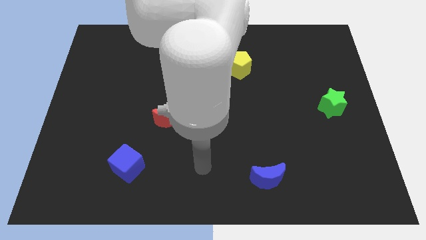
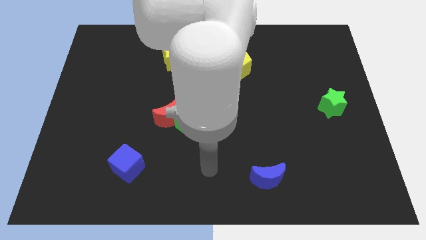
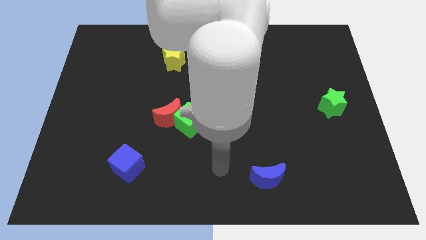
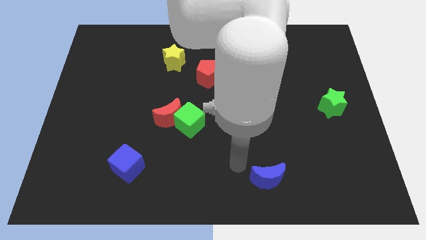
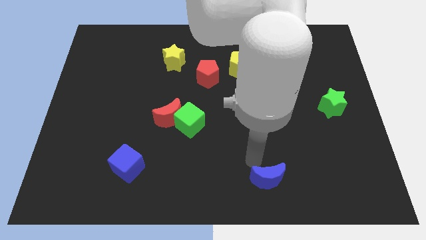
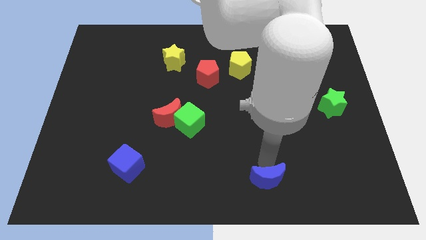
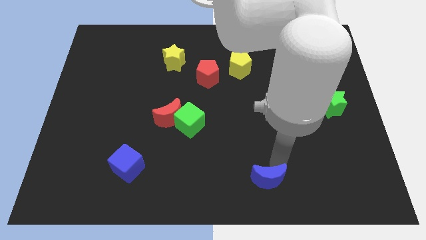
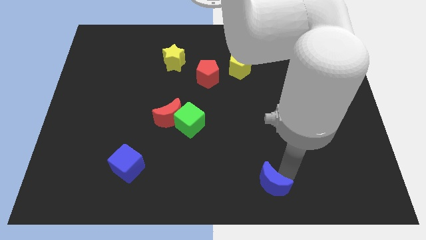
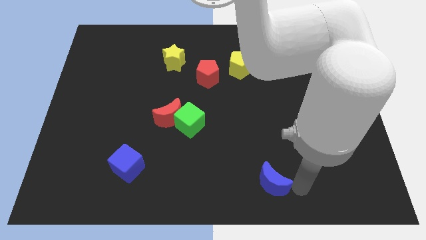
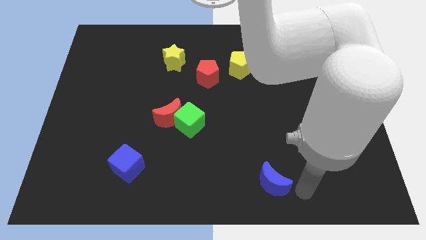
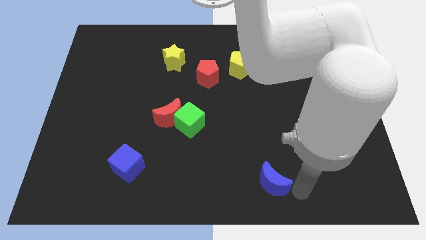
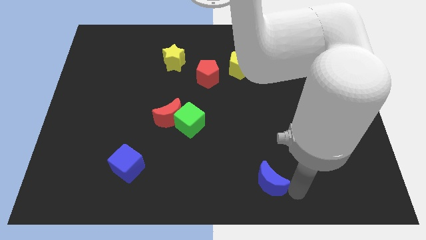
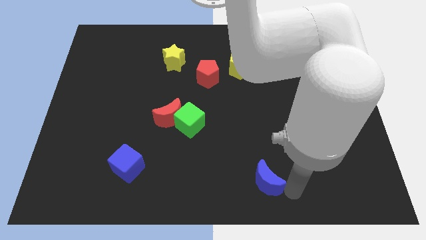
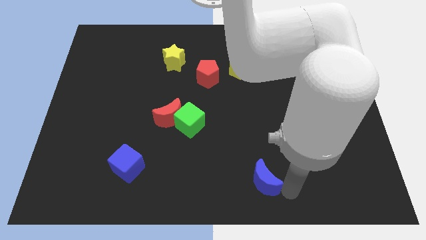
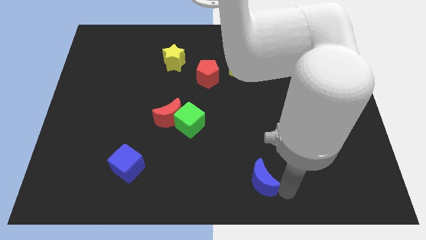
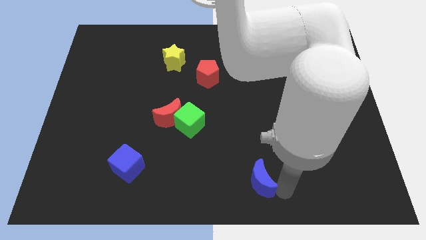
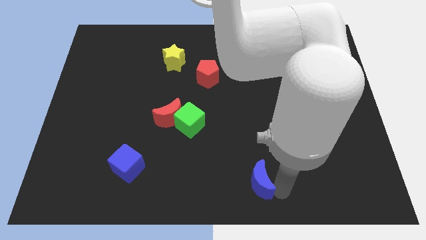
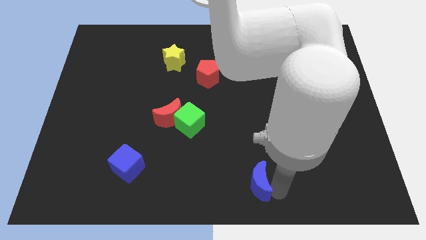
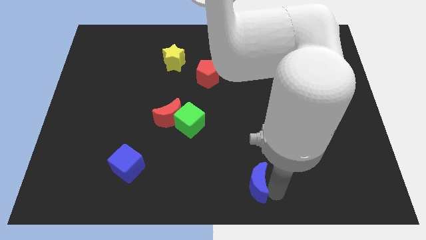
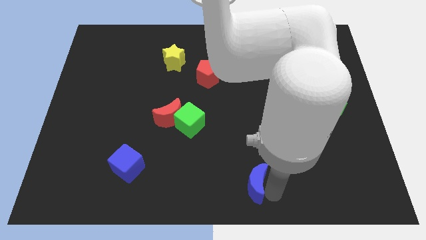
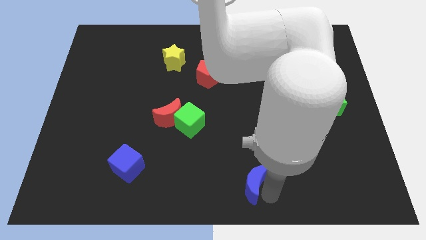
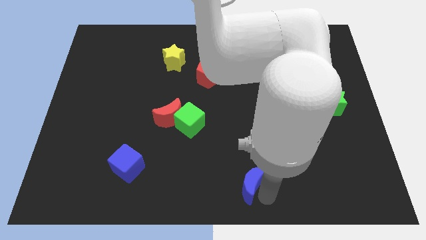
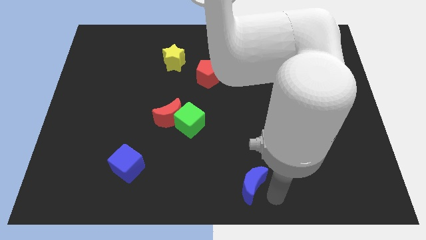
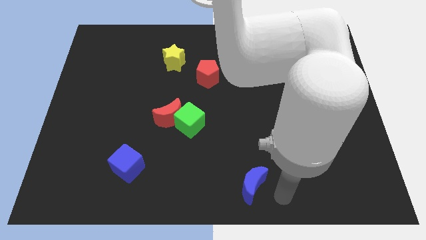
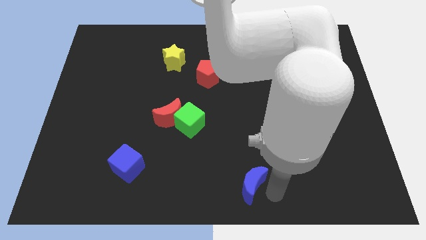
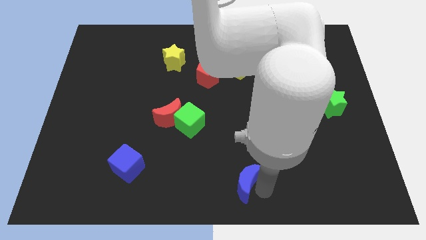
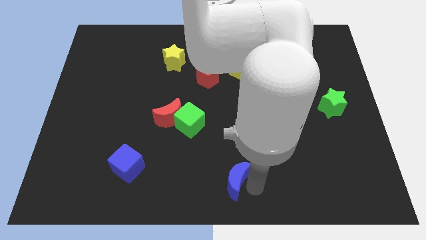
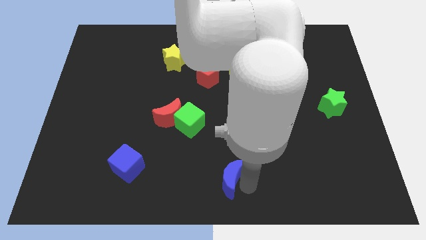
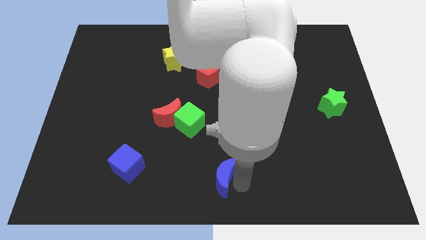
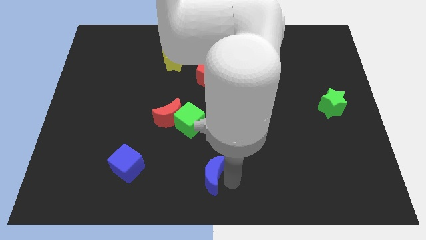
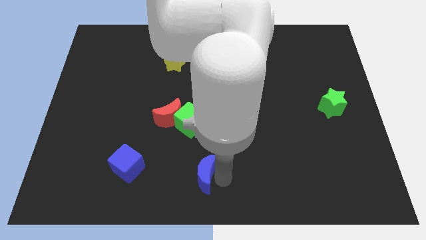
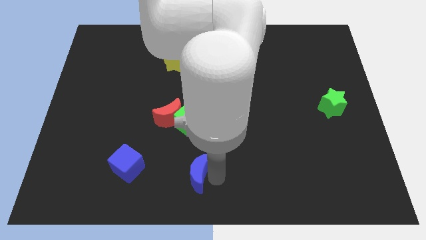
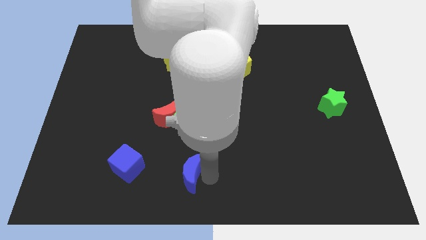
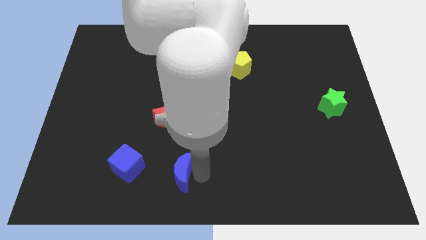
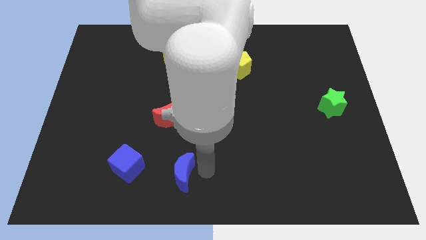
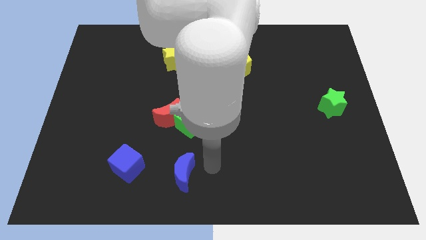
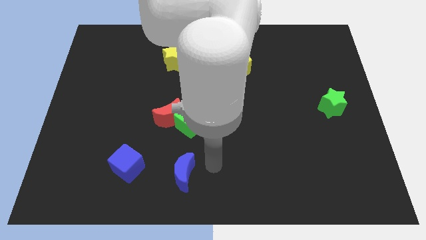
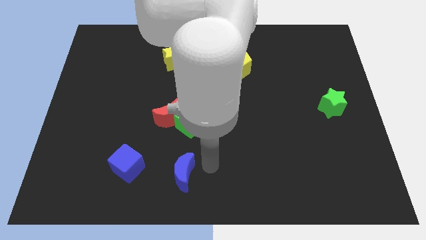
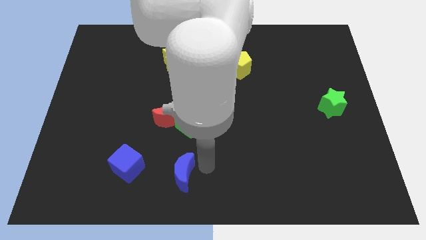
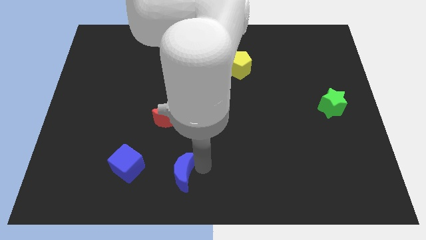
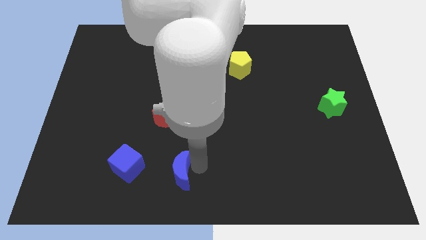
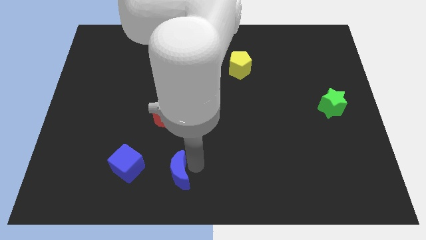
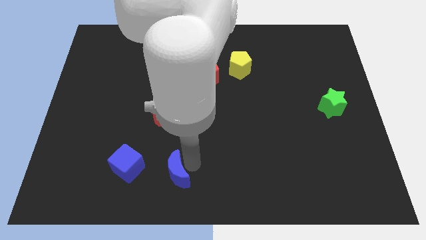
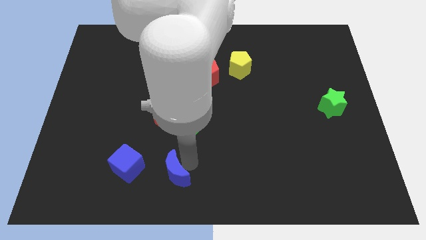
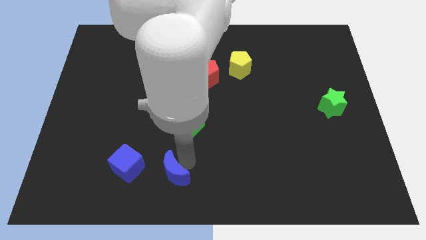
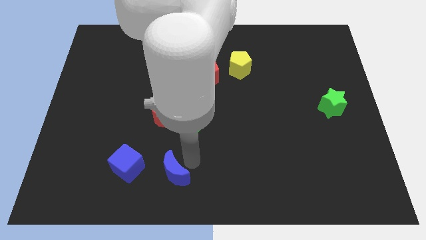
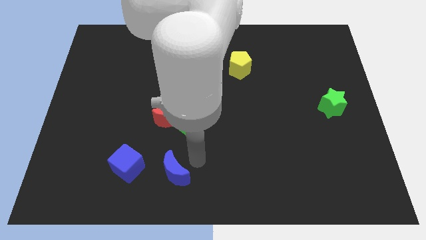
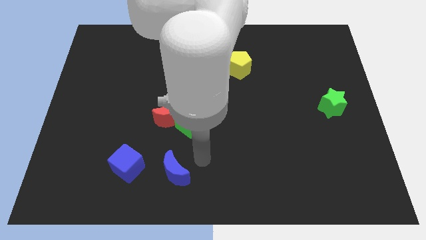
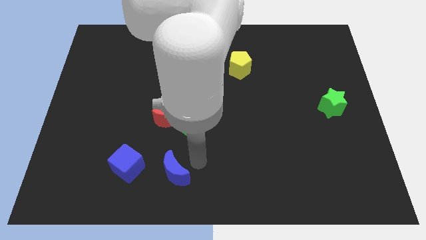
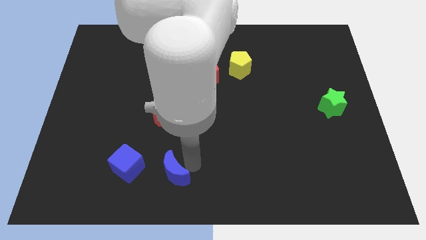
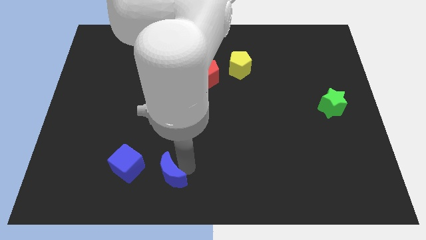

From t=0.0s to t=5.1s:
push the blue moon left

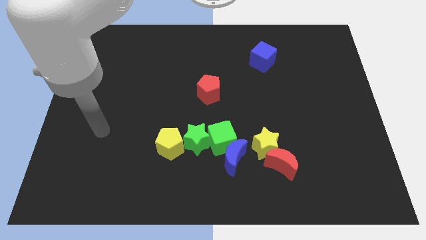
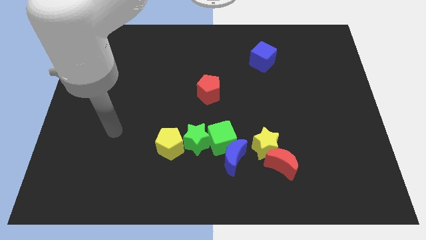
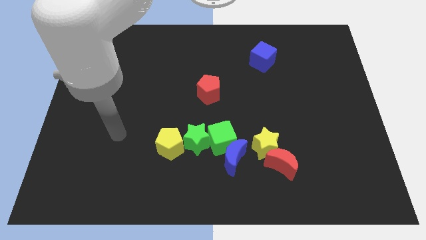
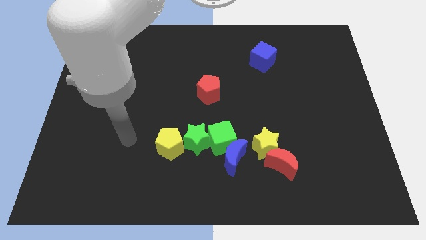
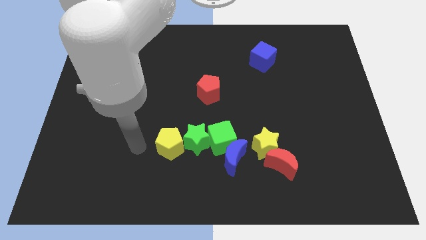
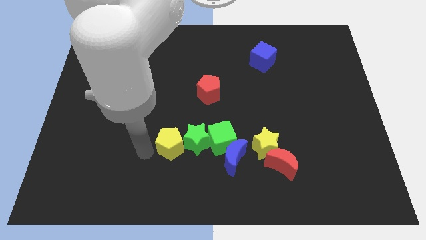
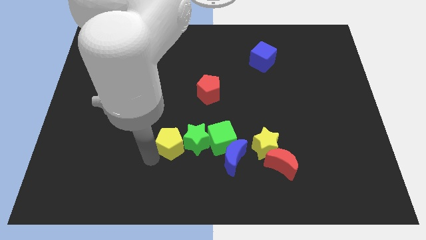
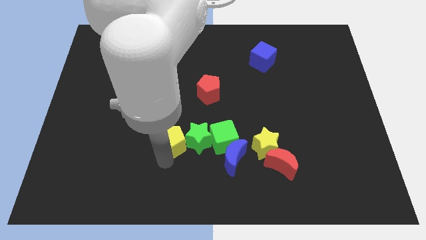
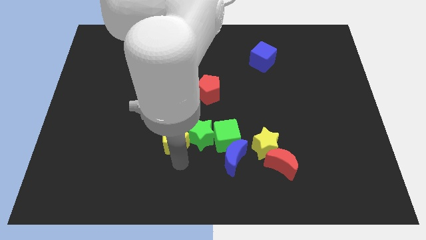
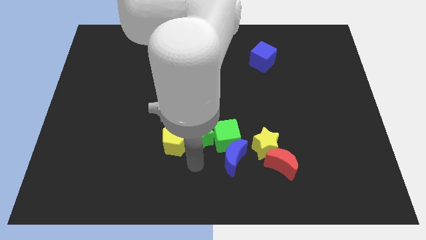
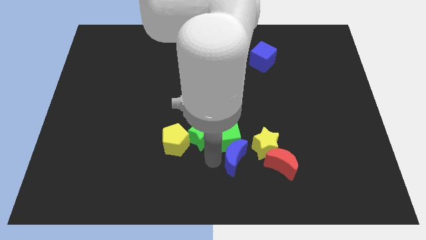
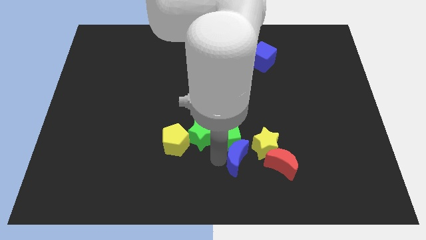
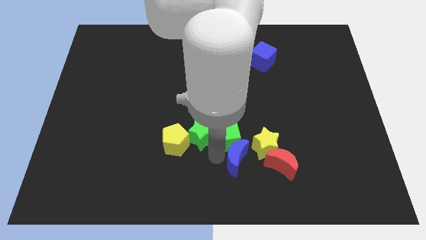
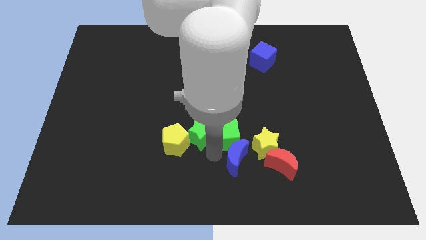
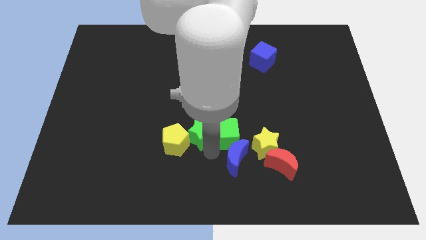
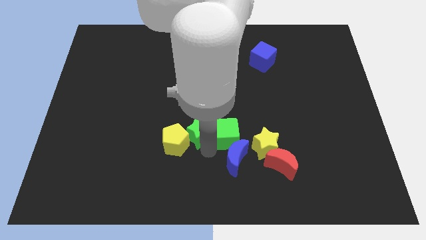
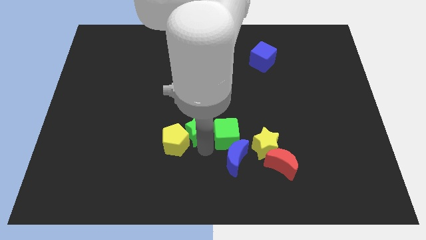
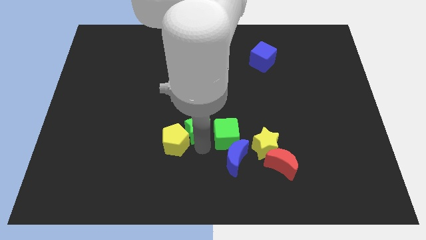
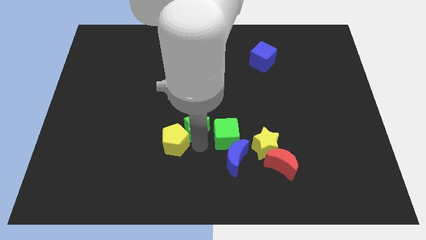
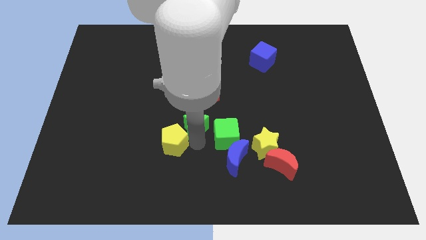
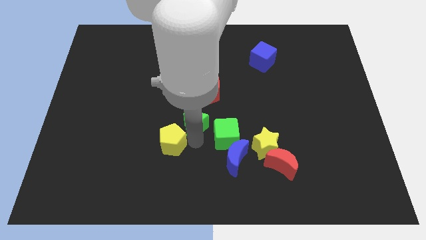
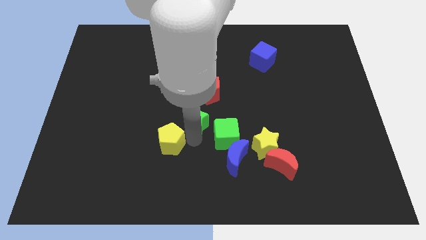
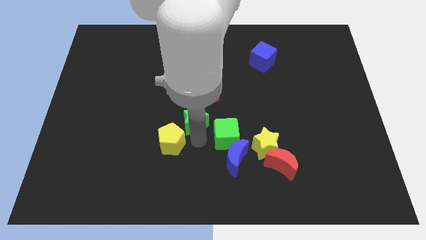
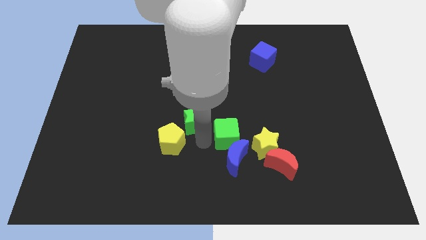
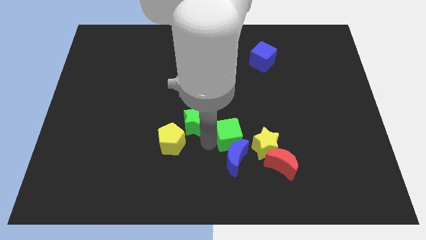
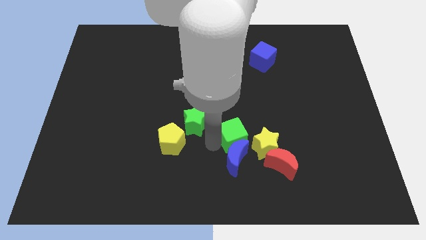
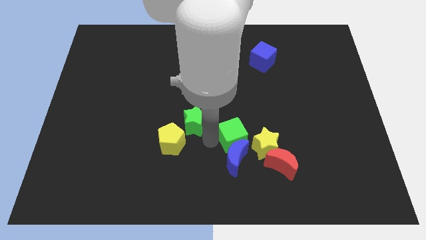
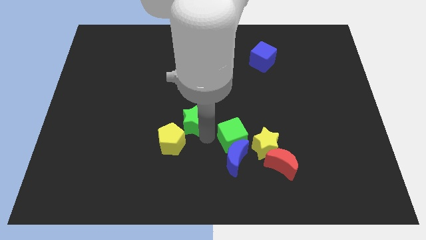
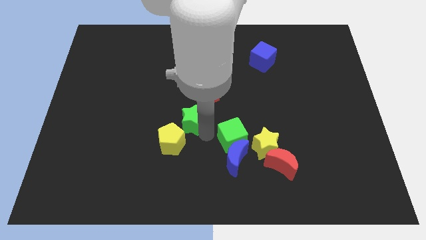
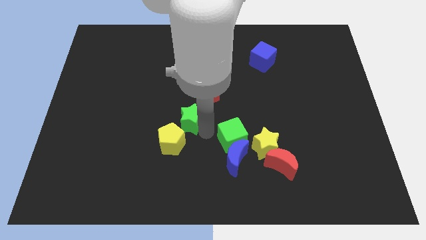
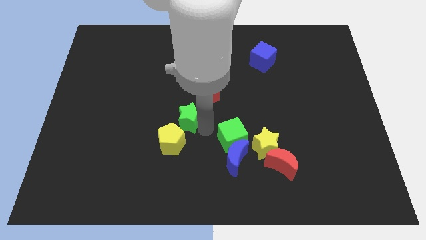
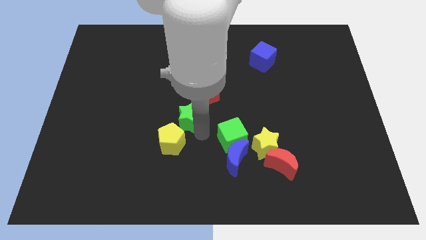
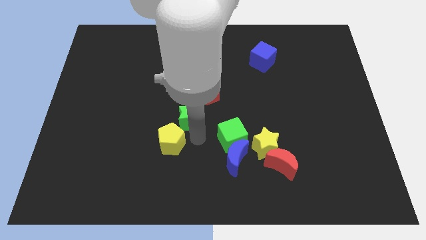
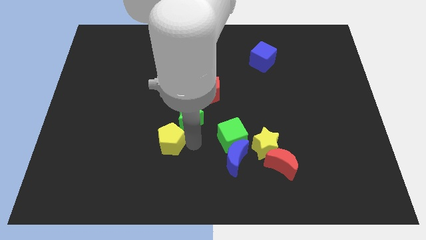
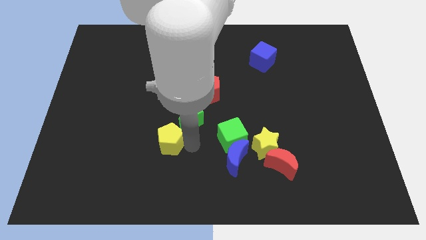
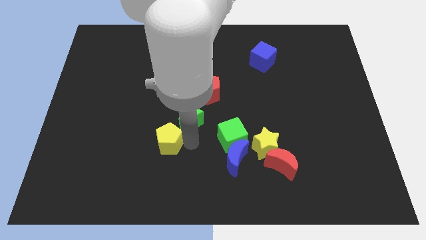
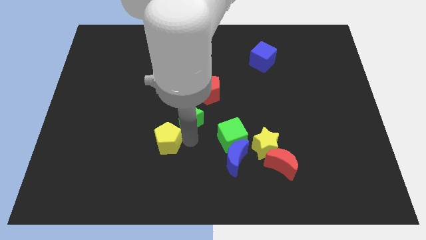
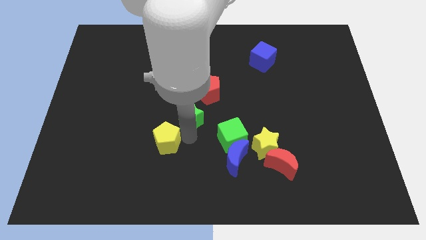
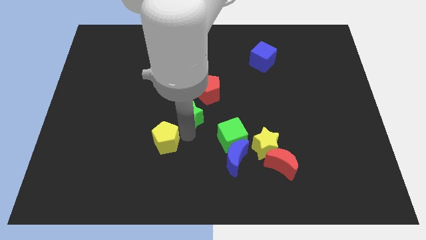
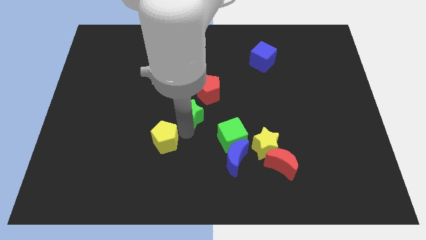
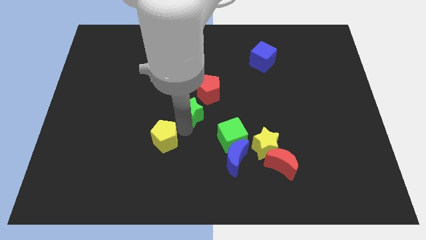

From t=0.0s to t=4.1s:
slide the green star upwards somewhat
